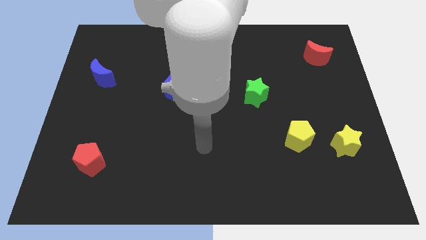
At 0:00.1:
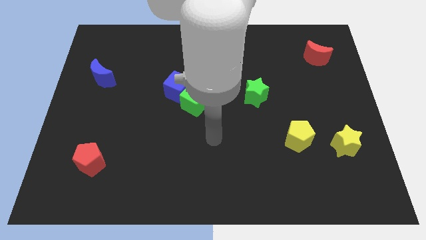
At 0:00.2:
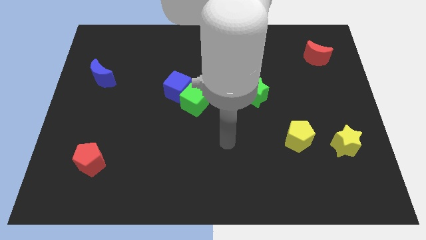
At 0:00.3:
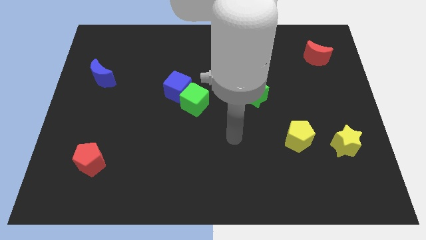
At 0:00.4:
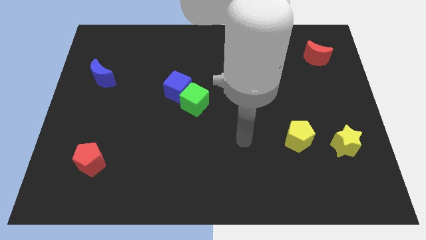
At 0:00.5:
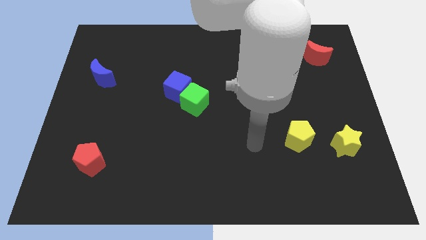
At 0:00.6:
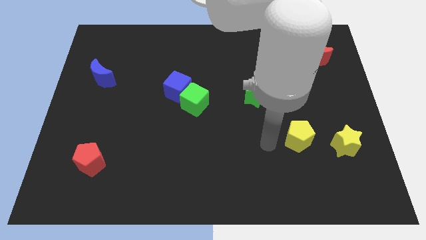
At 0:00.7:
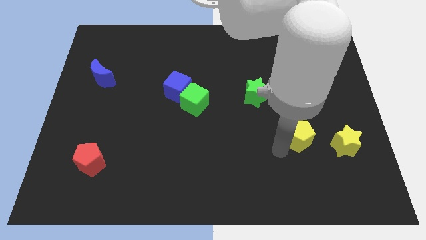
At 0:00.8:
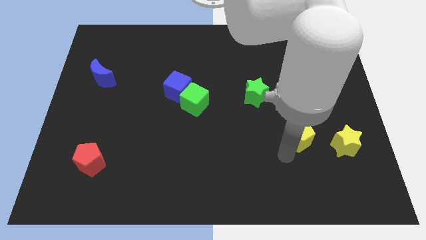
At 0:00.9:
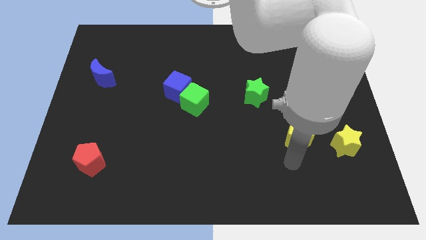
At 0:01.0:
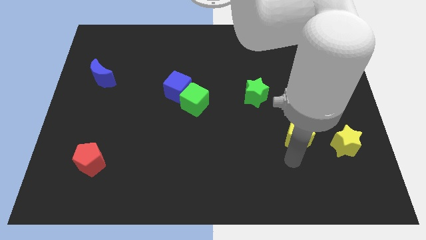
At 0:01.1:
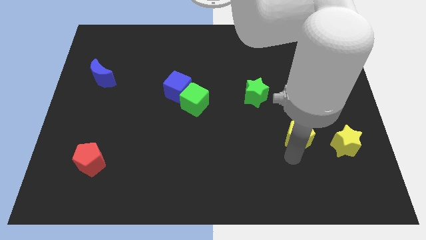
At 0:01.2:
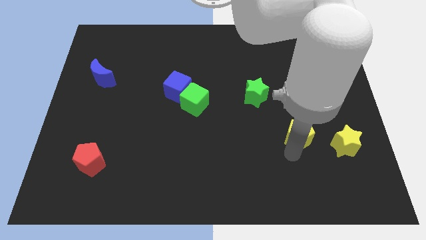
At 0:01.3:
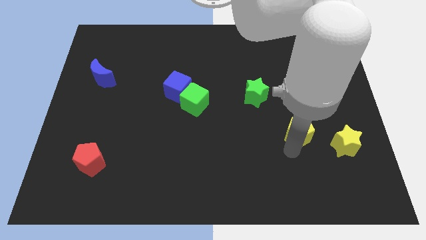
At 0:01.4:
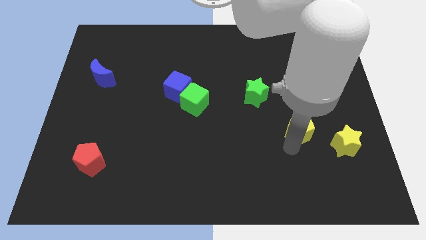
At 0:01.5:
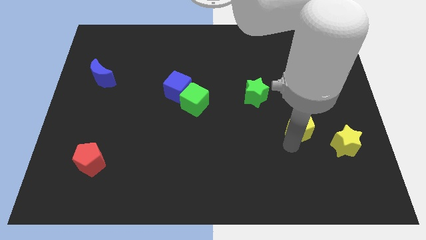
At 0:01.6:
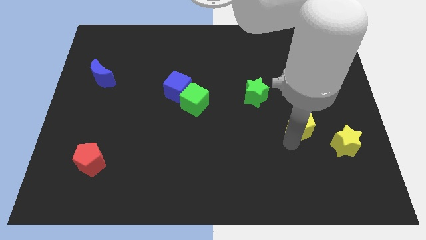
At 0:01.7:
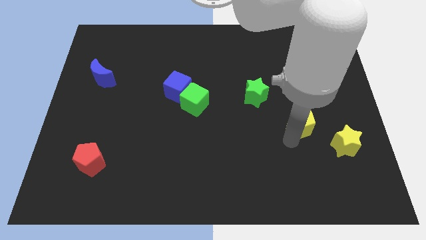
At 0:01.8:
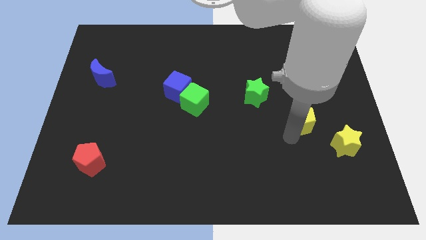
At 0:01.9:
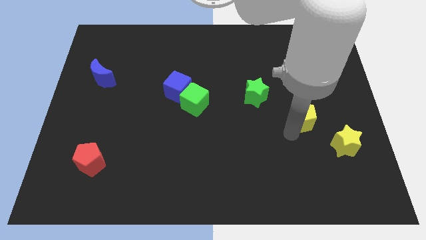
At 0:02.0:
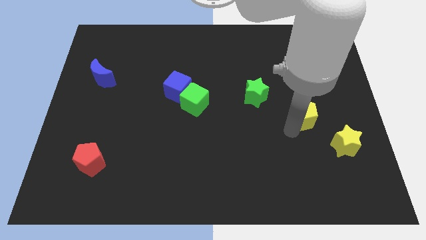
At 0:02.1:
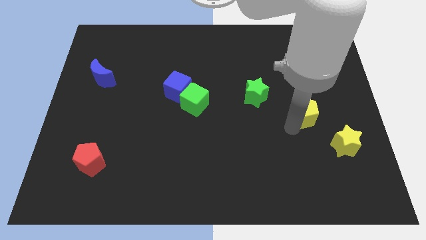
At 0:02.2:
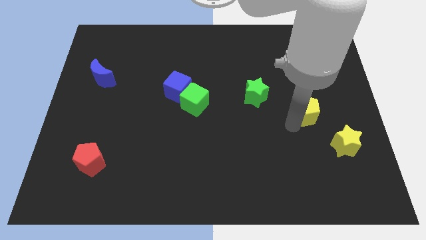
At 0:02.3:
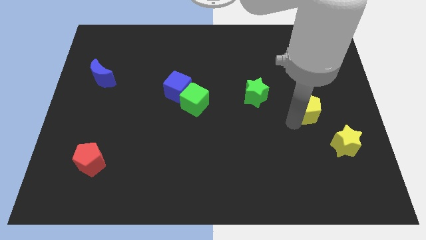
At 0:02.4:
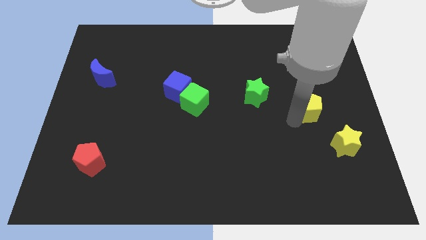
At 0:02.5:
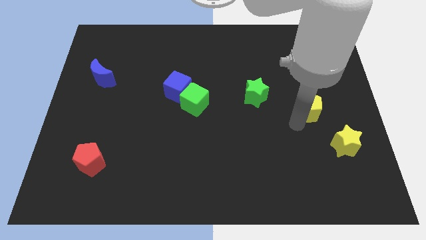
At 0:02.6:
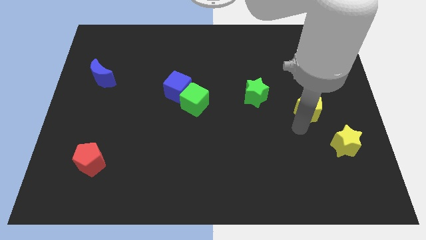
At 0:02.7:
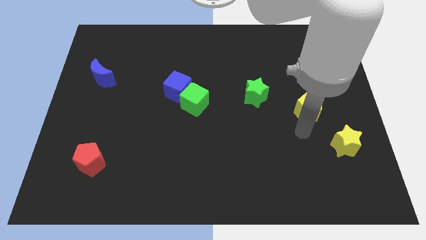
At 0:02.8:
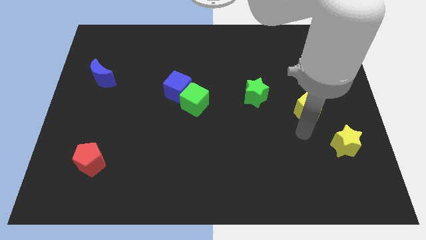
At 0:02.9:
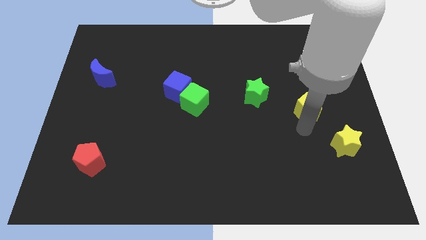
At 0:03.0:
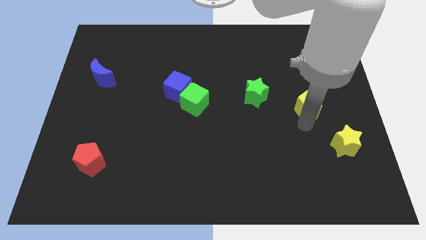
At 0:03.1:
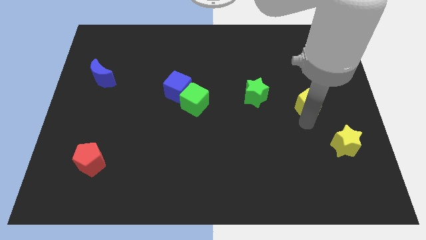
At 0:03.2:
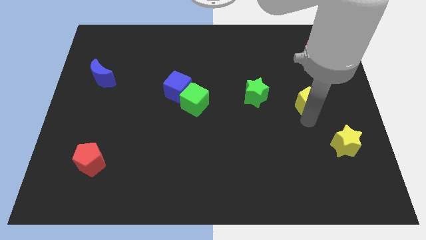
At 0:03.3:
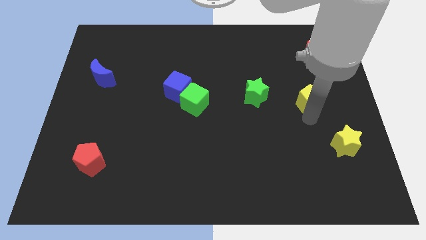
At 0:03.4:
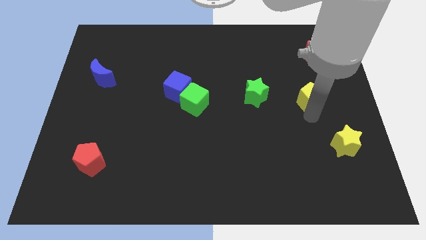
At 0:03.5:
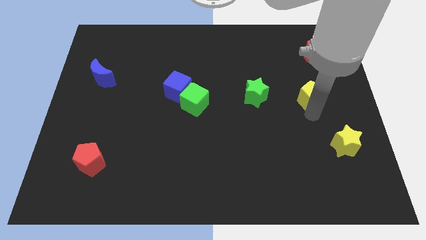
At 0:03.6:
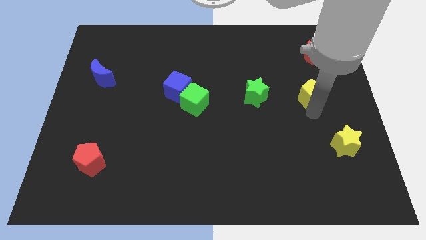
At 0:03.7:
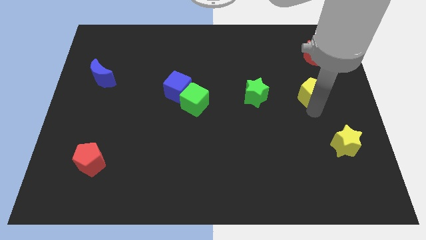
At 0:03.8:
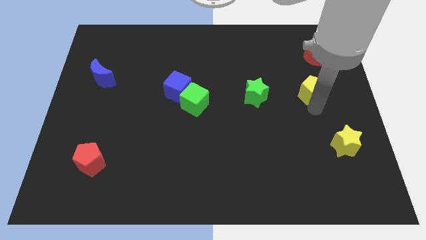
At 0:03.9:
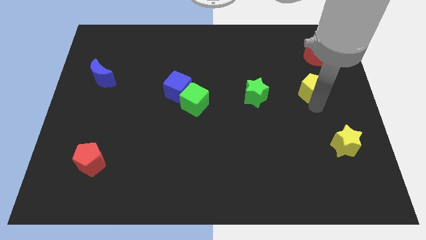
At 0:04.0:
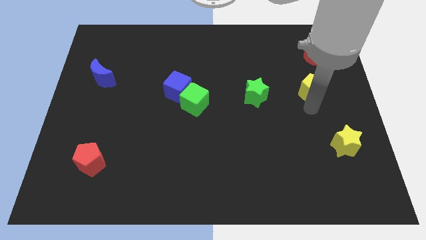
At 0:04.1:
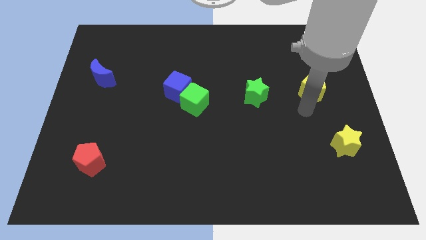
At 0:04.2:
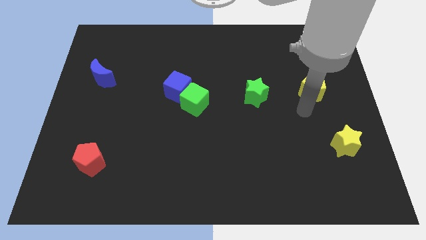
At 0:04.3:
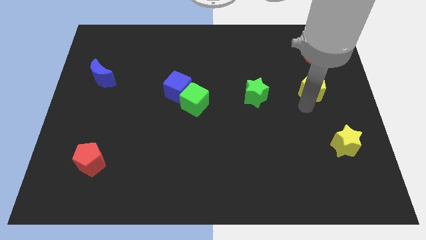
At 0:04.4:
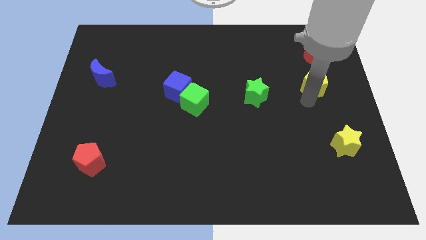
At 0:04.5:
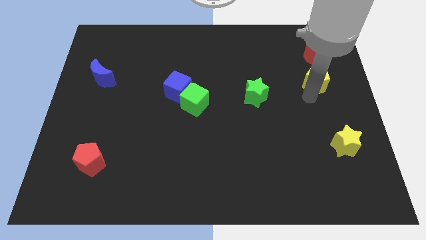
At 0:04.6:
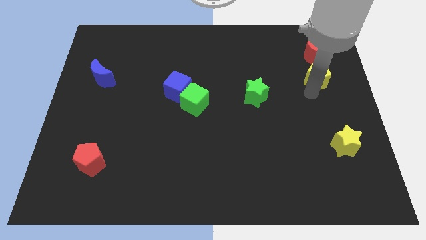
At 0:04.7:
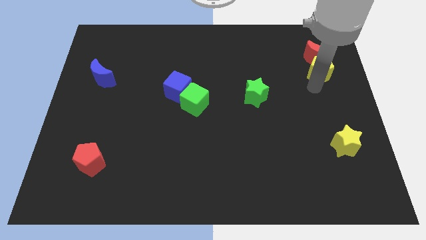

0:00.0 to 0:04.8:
push the yellow pentagon next to the red moon

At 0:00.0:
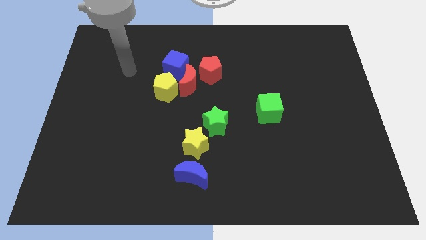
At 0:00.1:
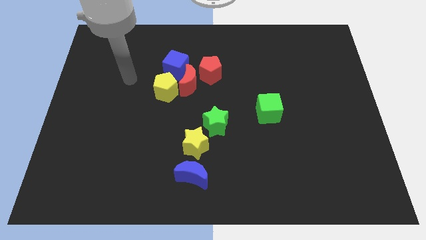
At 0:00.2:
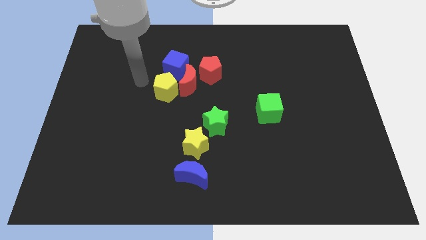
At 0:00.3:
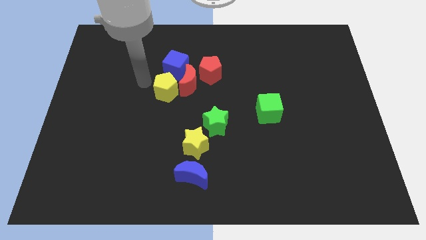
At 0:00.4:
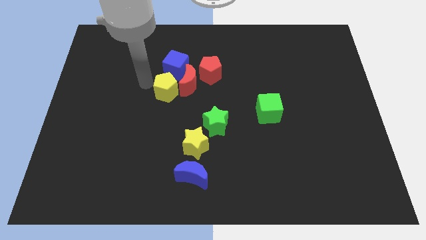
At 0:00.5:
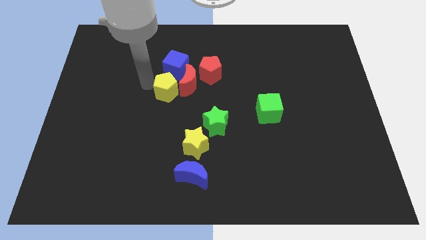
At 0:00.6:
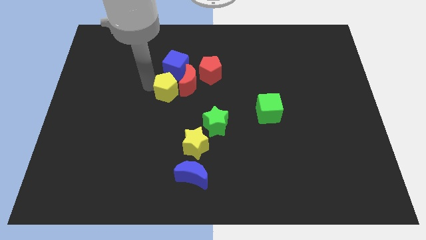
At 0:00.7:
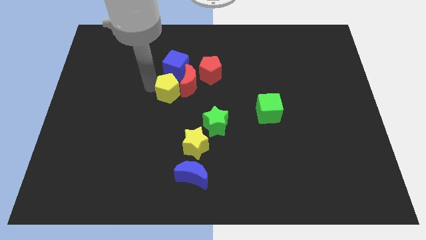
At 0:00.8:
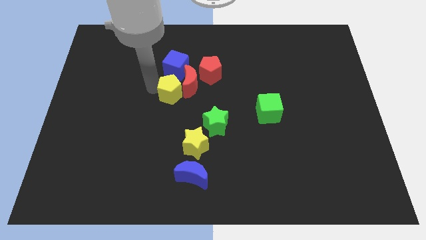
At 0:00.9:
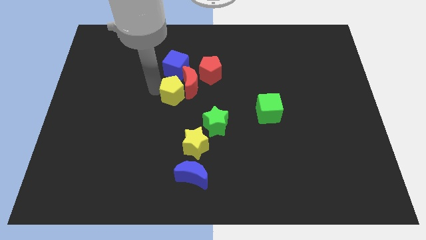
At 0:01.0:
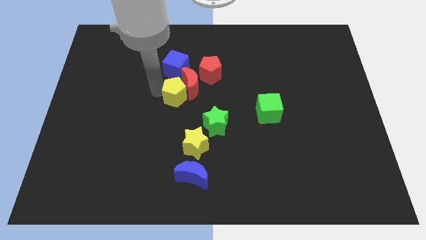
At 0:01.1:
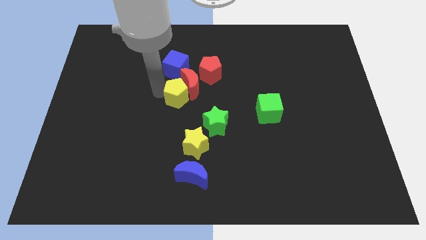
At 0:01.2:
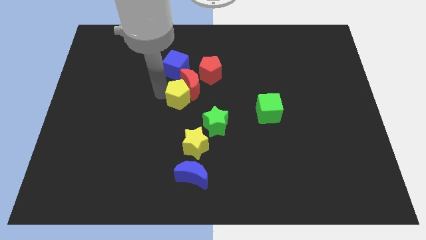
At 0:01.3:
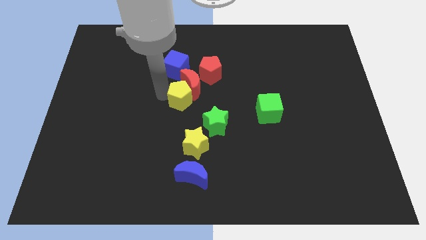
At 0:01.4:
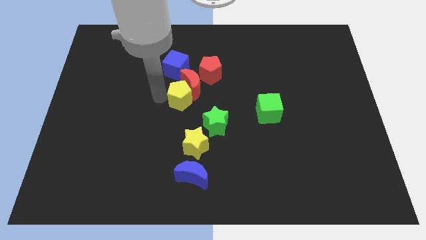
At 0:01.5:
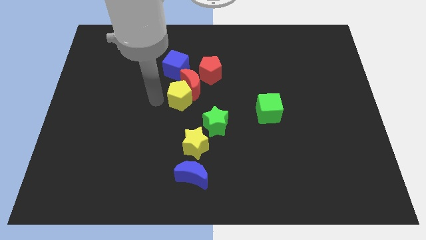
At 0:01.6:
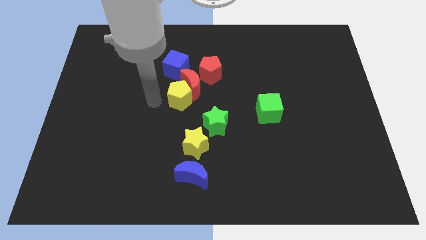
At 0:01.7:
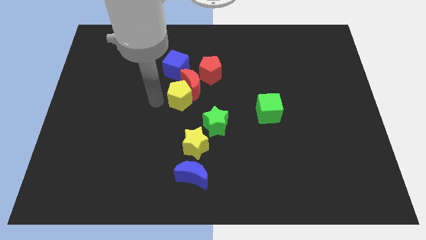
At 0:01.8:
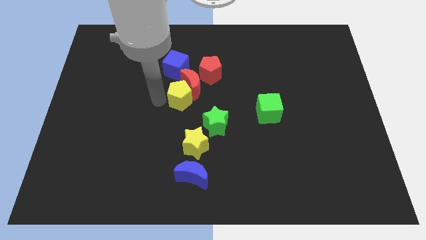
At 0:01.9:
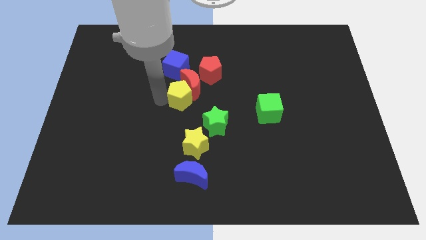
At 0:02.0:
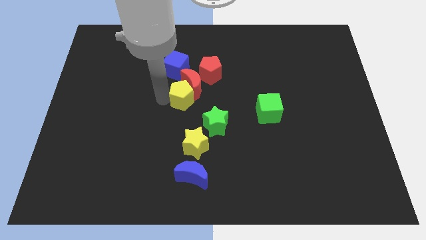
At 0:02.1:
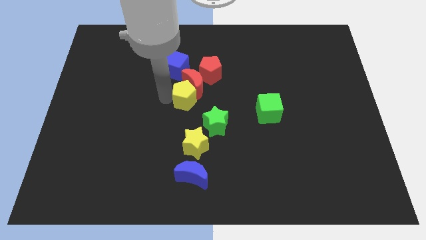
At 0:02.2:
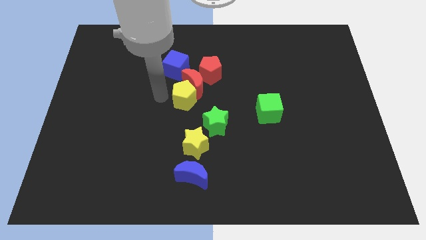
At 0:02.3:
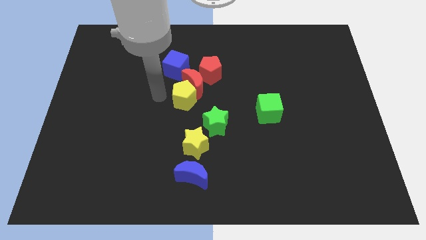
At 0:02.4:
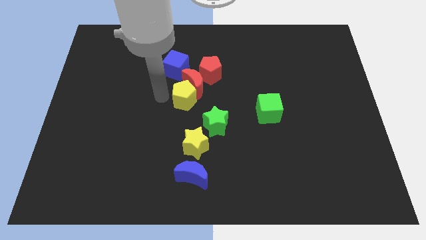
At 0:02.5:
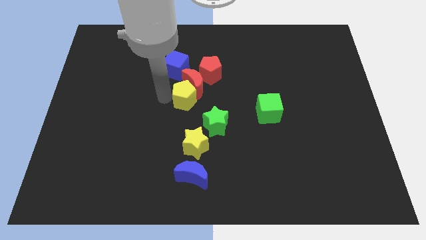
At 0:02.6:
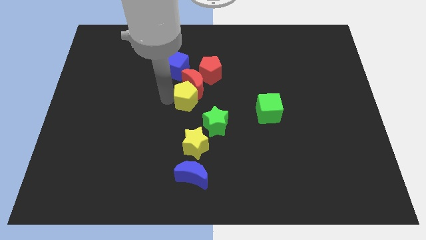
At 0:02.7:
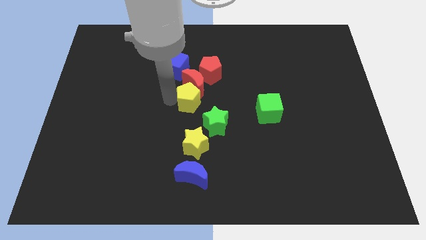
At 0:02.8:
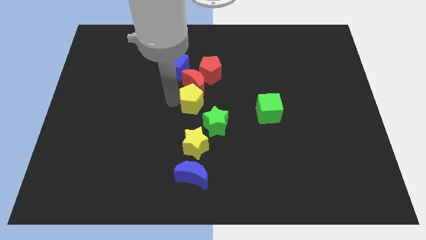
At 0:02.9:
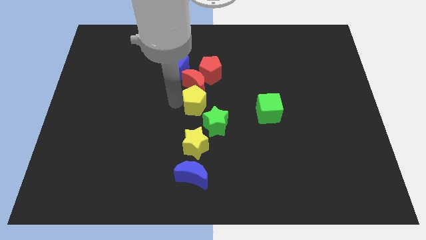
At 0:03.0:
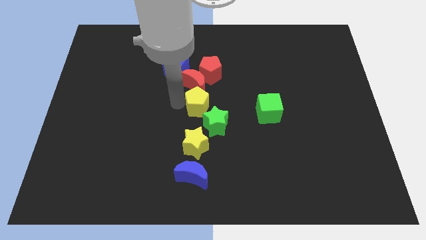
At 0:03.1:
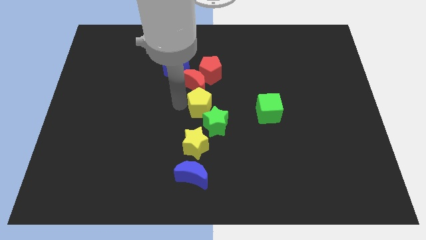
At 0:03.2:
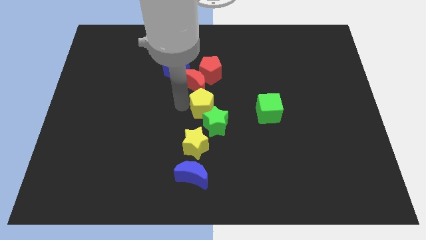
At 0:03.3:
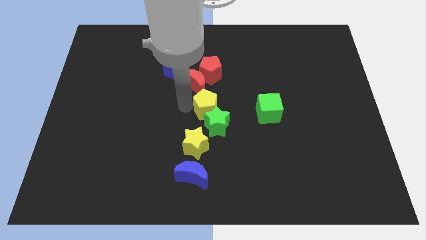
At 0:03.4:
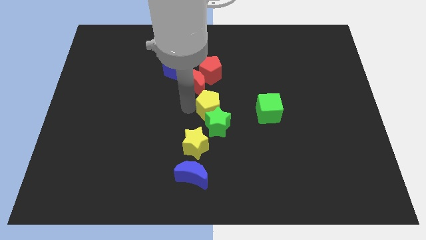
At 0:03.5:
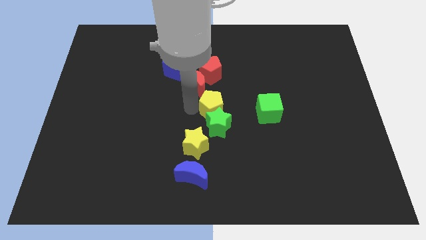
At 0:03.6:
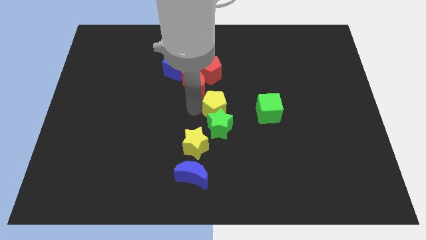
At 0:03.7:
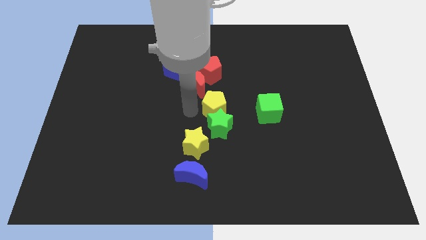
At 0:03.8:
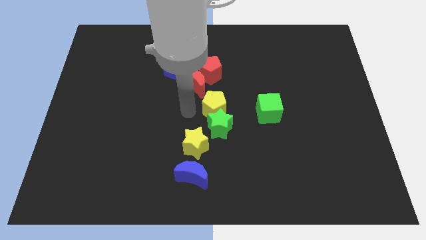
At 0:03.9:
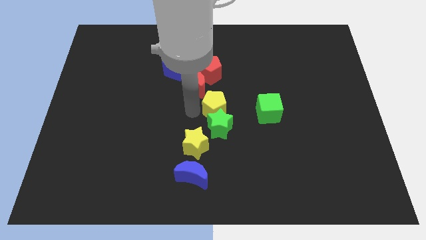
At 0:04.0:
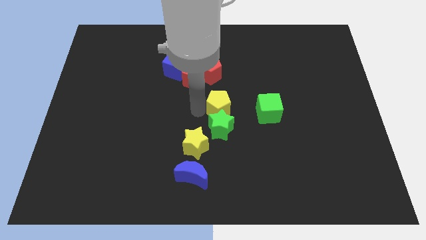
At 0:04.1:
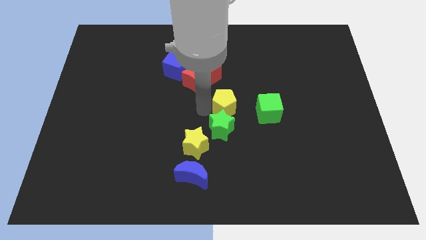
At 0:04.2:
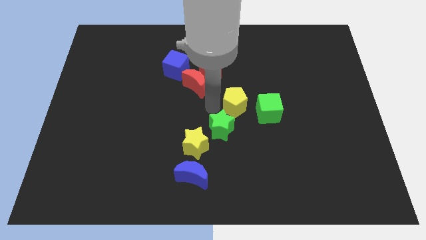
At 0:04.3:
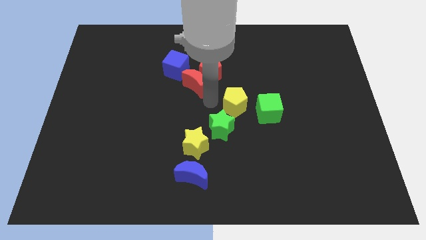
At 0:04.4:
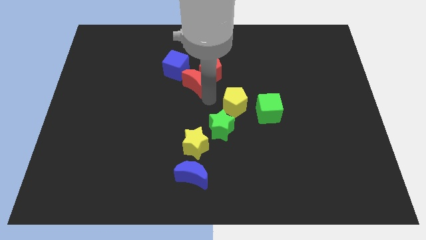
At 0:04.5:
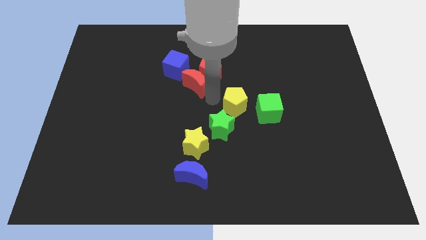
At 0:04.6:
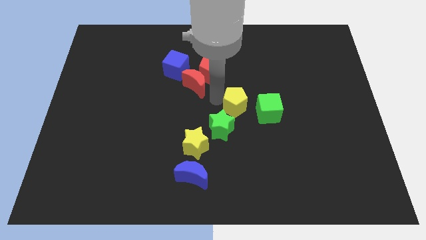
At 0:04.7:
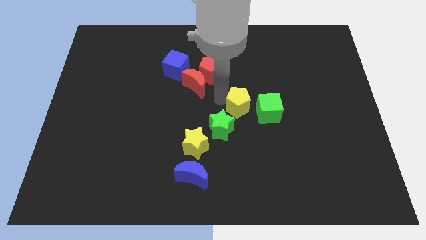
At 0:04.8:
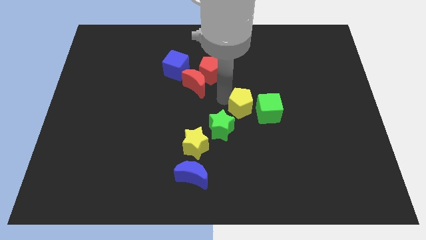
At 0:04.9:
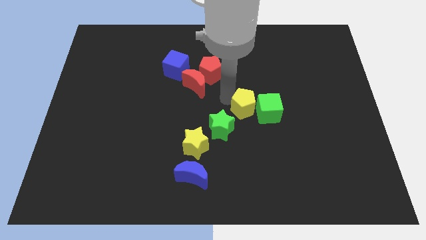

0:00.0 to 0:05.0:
slide the yellow pentagon towards the green cube
